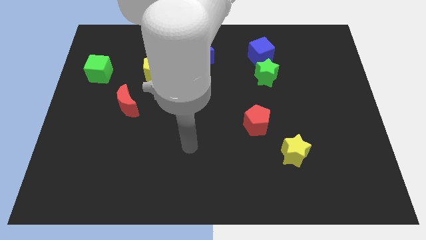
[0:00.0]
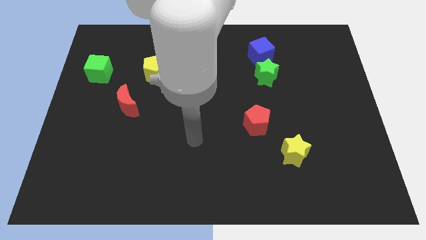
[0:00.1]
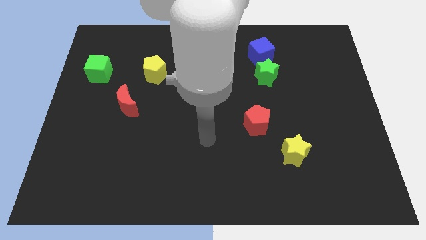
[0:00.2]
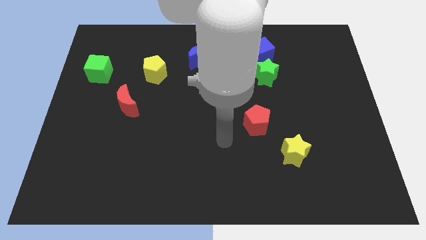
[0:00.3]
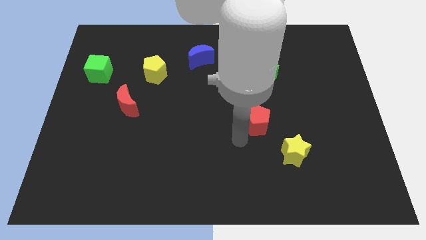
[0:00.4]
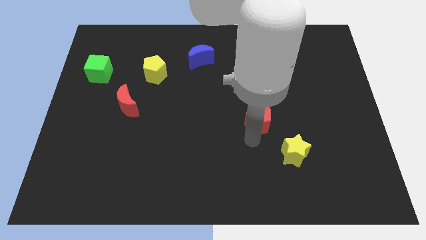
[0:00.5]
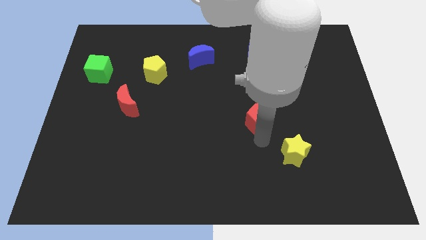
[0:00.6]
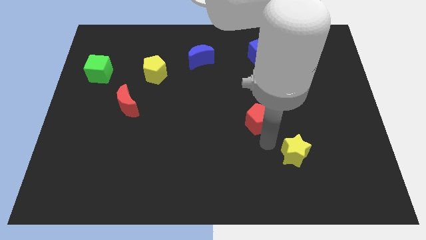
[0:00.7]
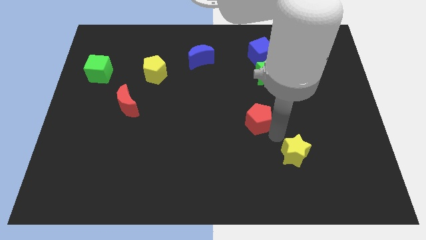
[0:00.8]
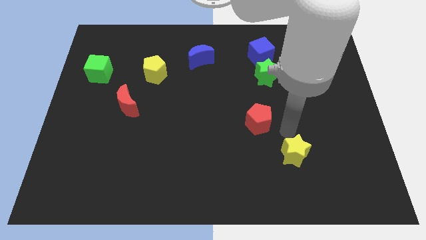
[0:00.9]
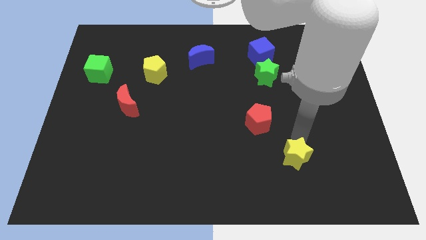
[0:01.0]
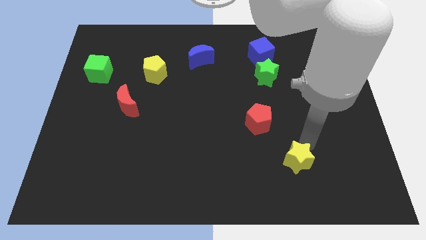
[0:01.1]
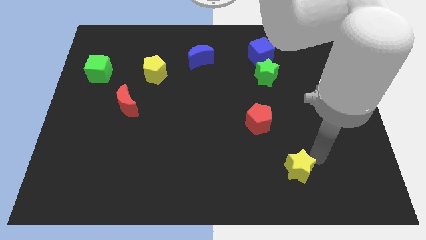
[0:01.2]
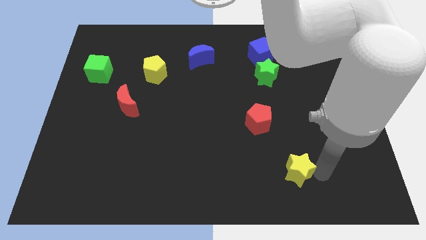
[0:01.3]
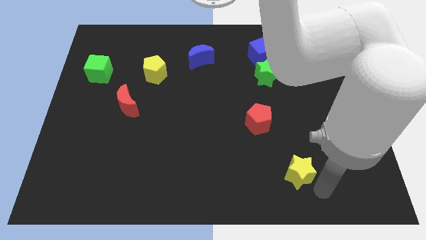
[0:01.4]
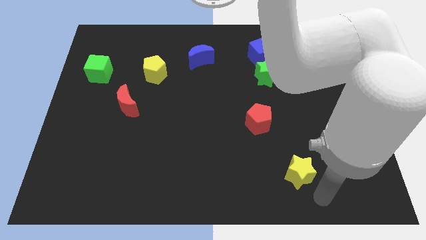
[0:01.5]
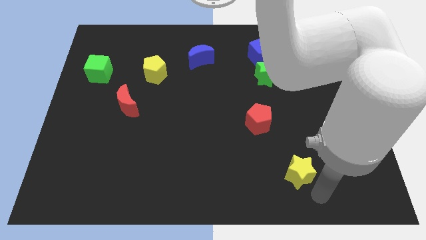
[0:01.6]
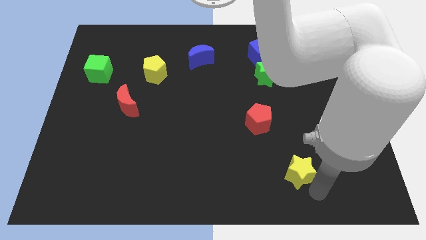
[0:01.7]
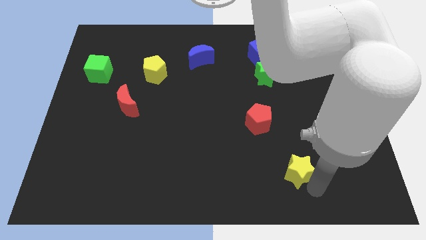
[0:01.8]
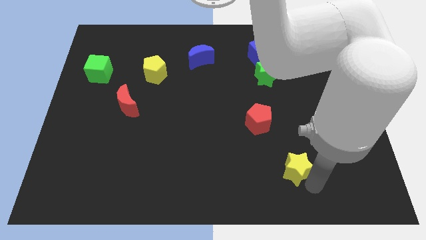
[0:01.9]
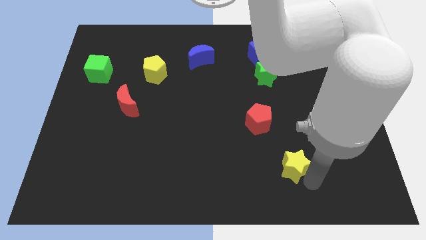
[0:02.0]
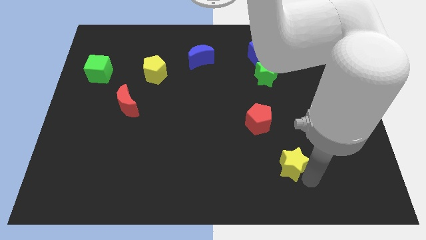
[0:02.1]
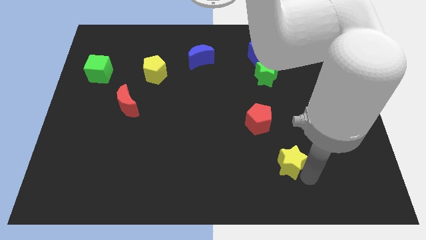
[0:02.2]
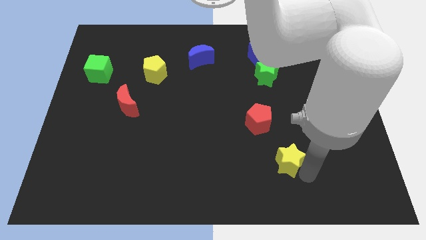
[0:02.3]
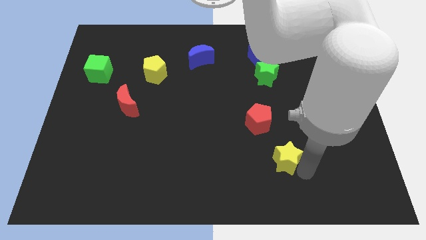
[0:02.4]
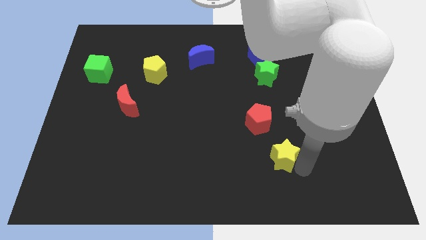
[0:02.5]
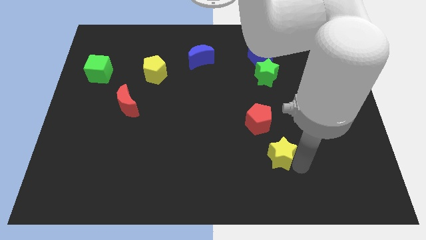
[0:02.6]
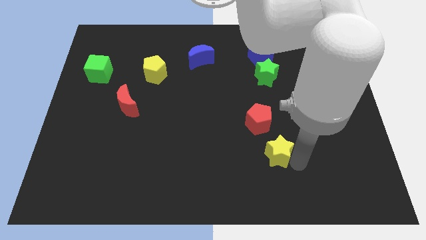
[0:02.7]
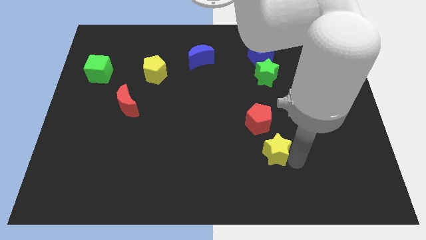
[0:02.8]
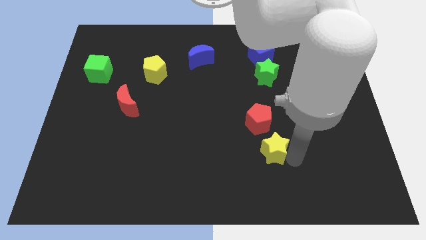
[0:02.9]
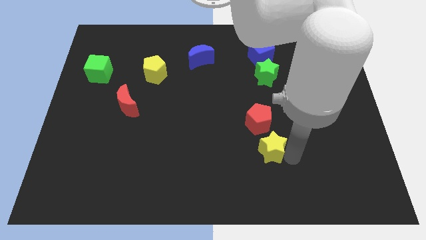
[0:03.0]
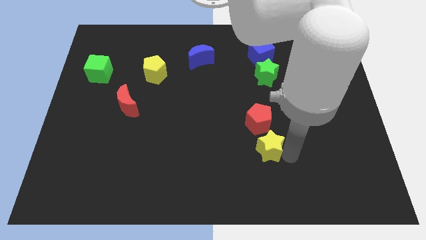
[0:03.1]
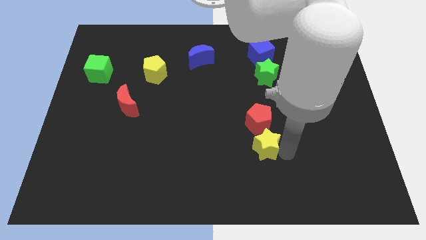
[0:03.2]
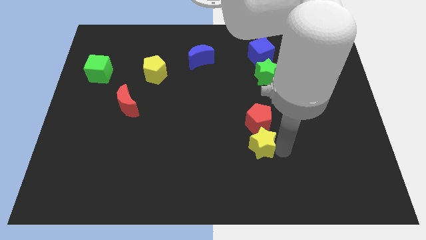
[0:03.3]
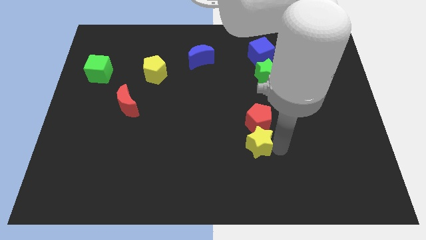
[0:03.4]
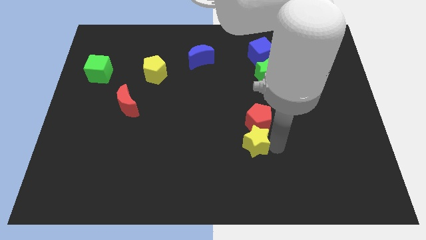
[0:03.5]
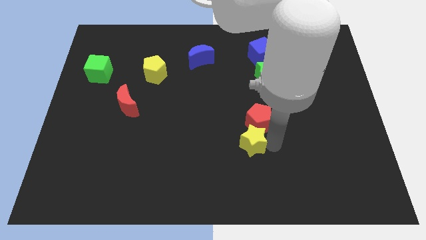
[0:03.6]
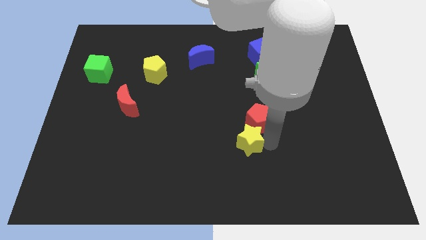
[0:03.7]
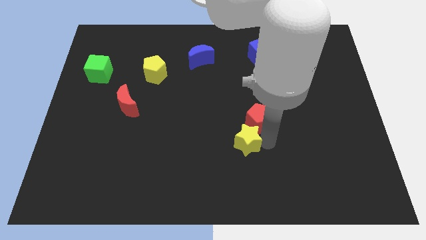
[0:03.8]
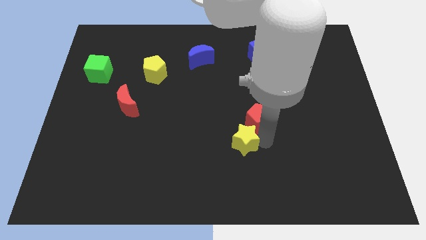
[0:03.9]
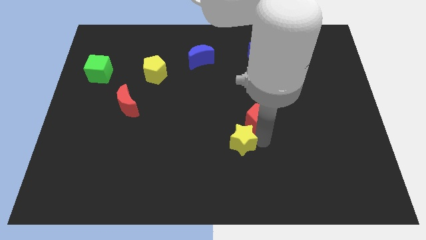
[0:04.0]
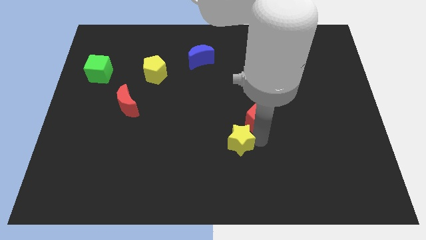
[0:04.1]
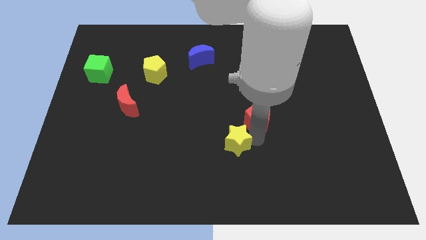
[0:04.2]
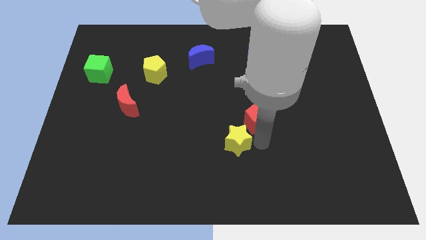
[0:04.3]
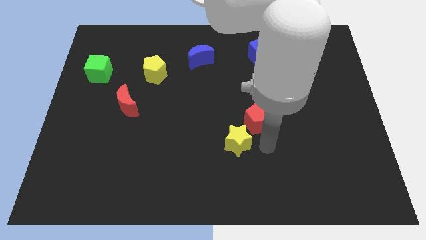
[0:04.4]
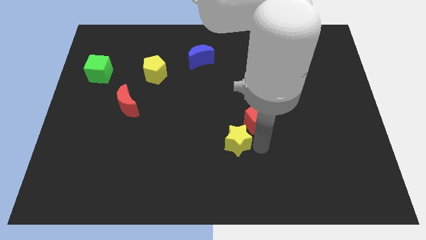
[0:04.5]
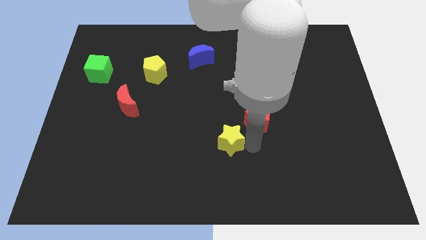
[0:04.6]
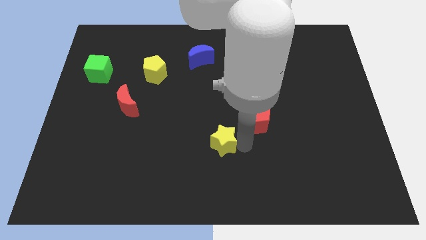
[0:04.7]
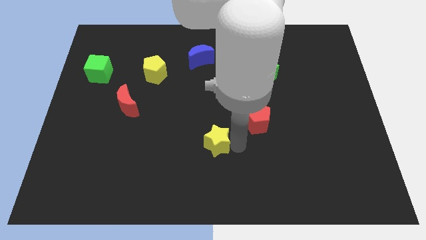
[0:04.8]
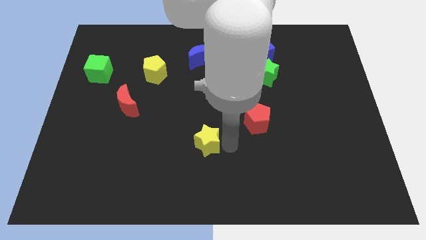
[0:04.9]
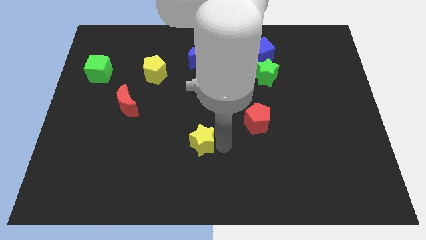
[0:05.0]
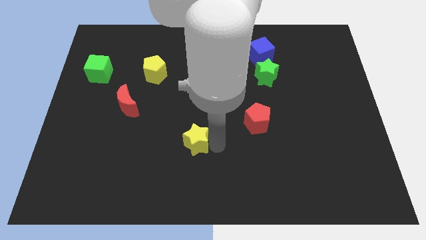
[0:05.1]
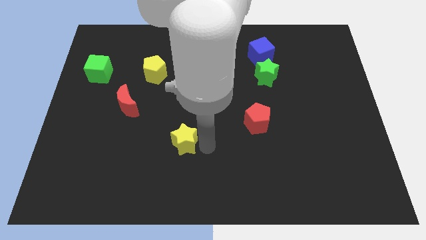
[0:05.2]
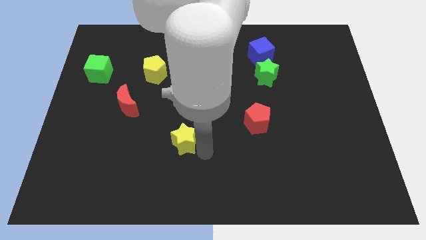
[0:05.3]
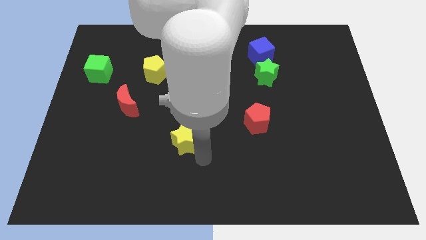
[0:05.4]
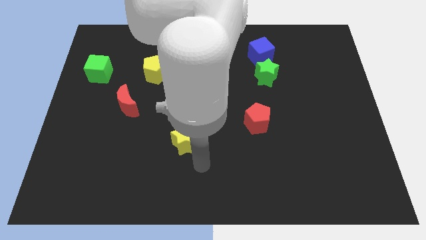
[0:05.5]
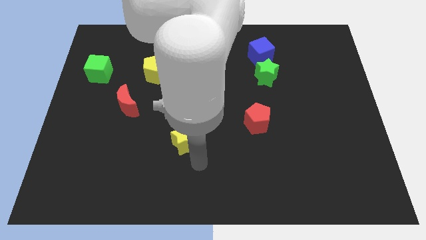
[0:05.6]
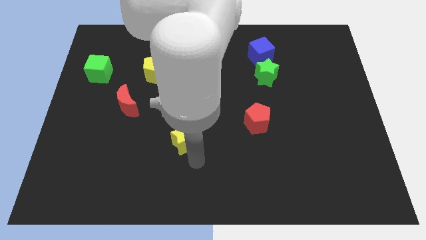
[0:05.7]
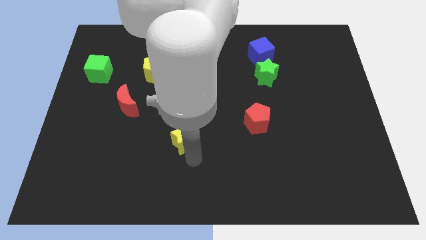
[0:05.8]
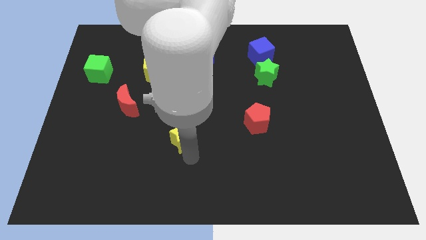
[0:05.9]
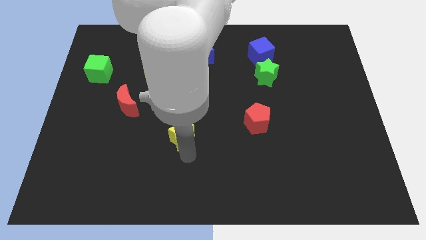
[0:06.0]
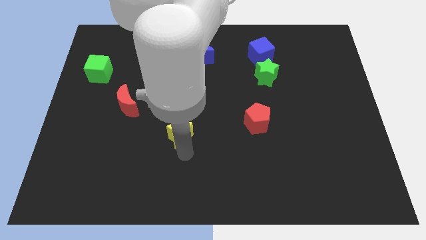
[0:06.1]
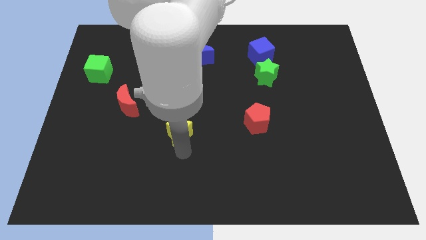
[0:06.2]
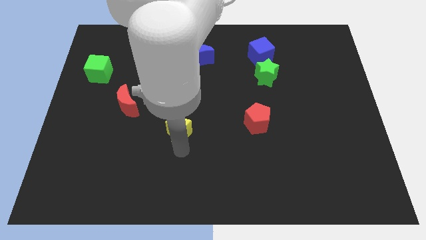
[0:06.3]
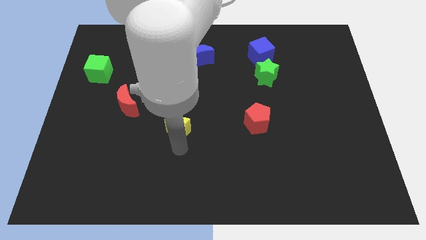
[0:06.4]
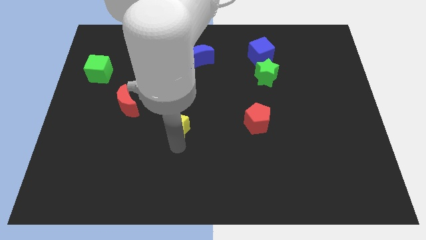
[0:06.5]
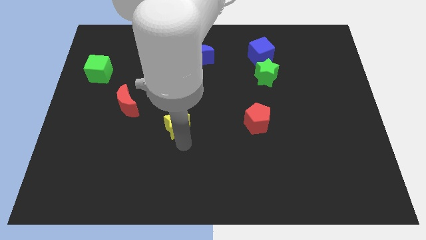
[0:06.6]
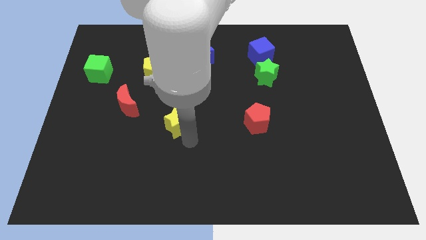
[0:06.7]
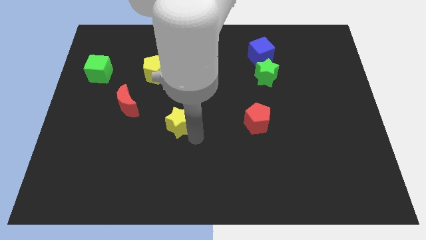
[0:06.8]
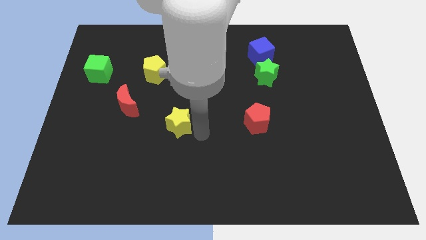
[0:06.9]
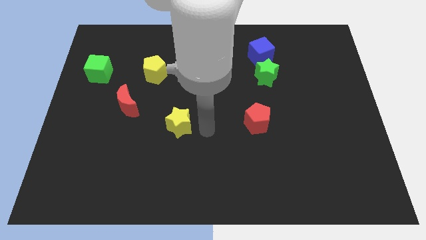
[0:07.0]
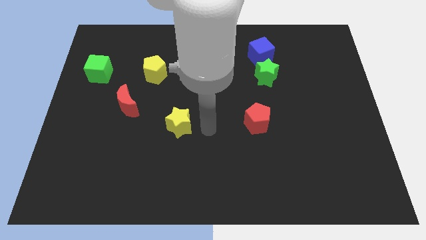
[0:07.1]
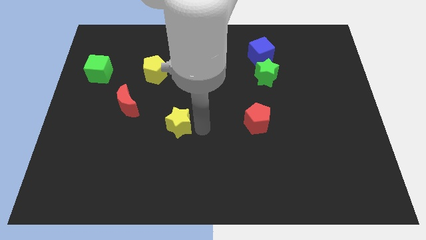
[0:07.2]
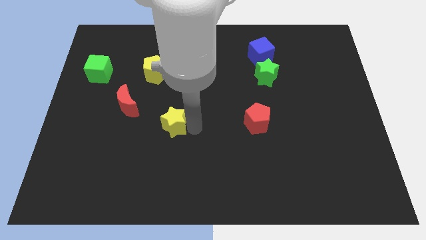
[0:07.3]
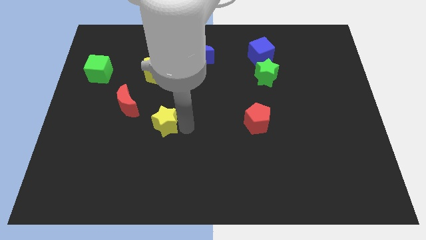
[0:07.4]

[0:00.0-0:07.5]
move the yellow star diagonally down and to the right of the red moon
